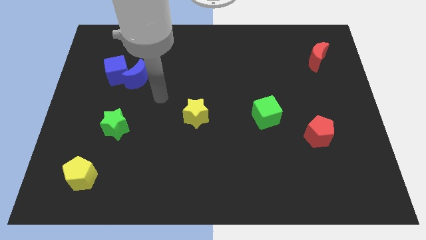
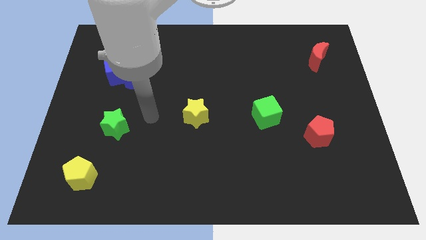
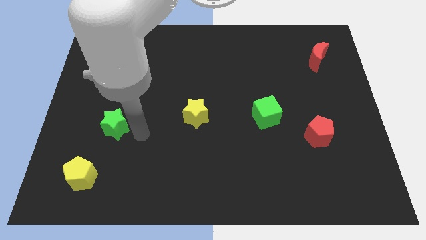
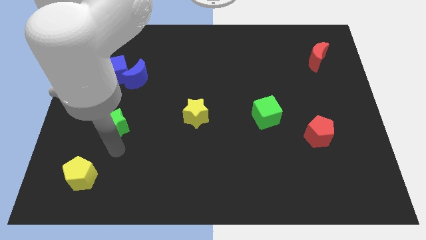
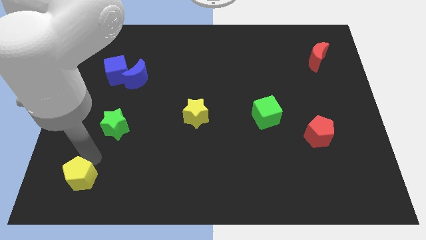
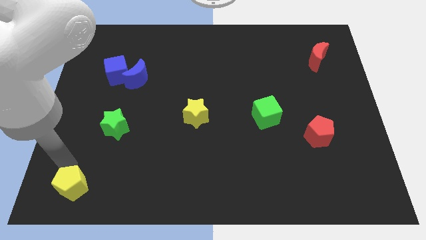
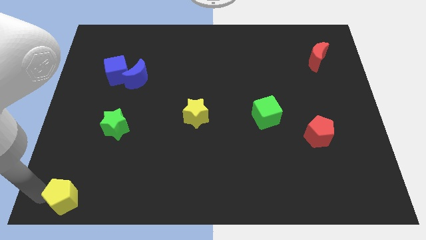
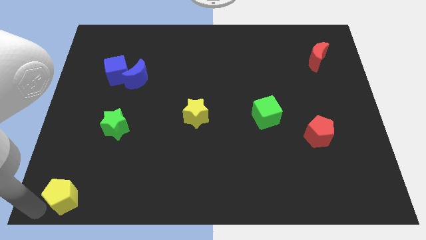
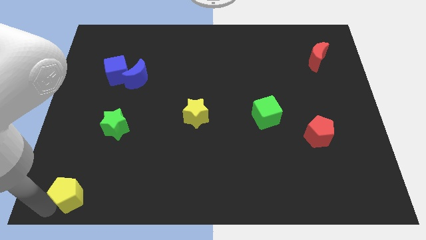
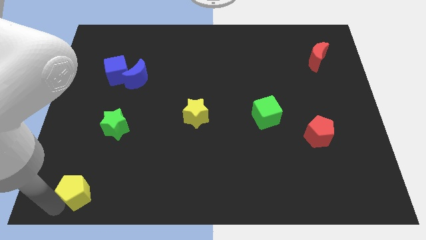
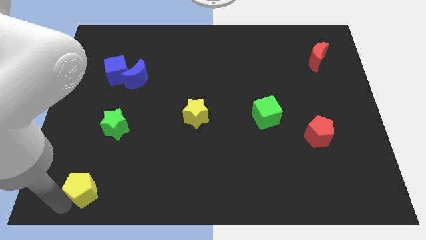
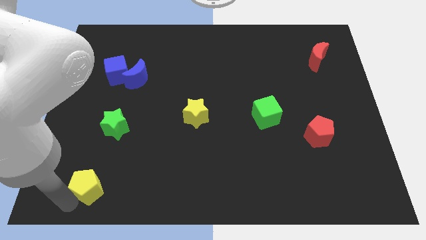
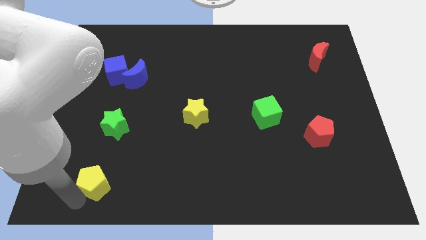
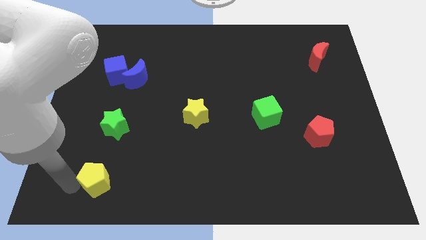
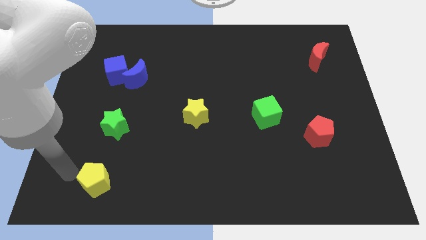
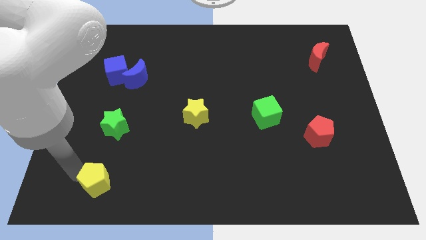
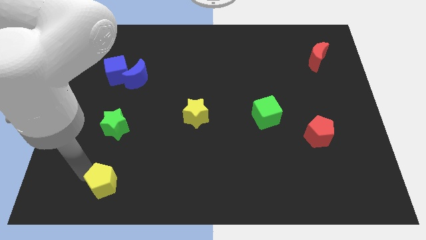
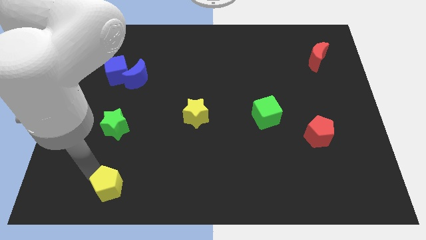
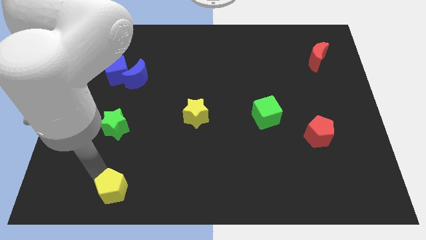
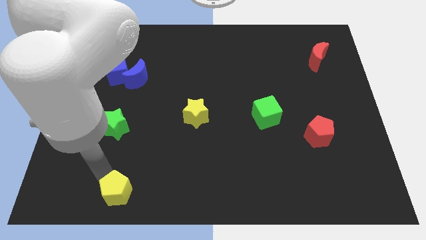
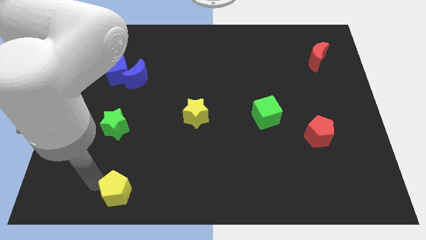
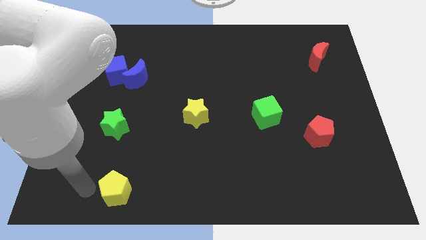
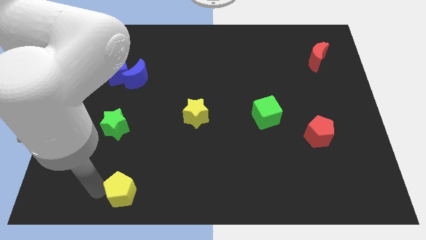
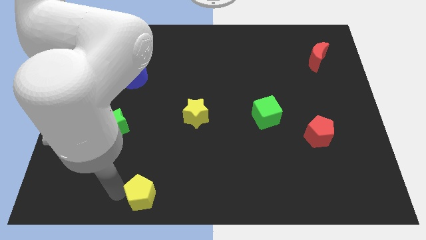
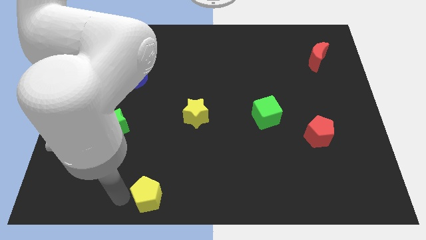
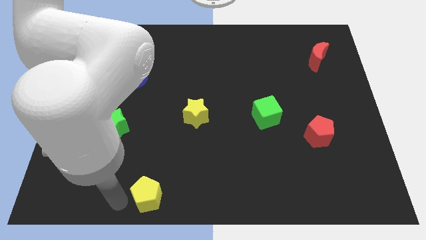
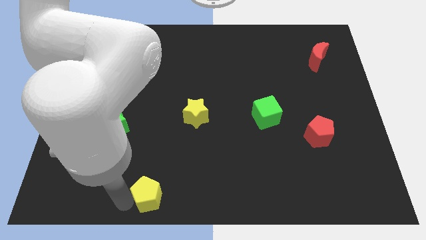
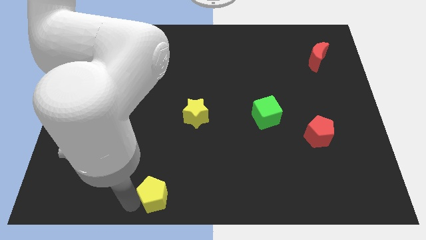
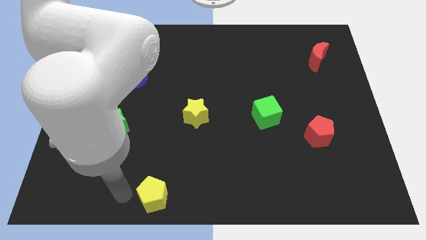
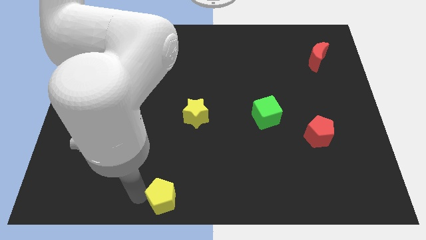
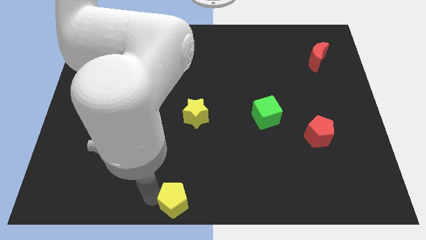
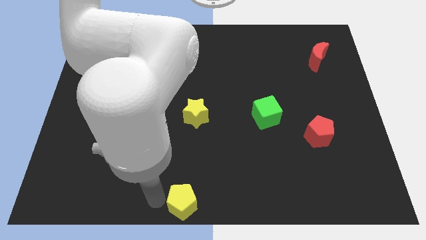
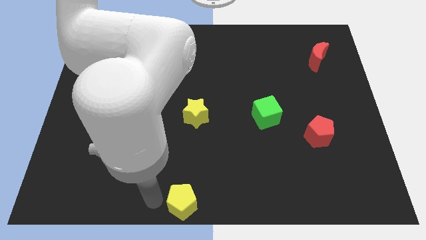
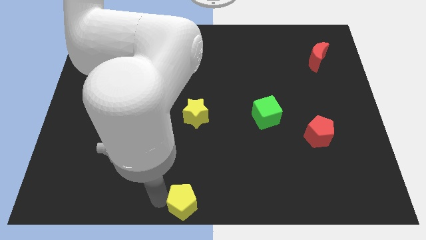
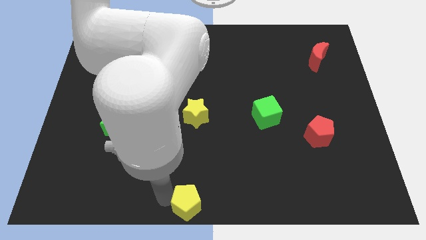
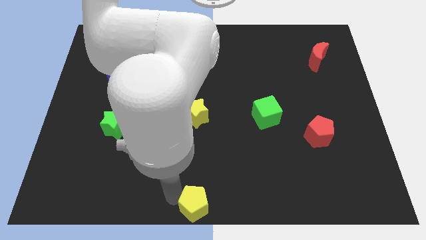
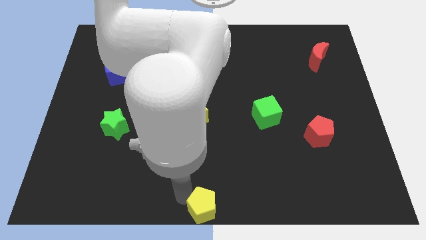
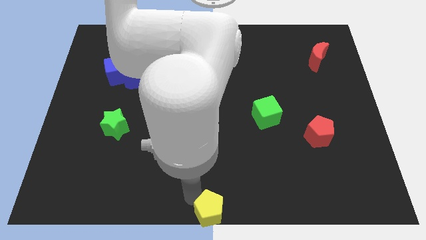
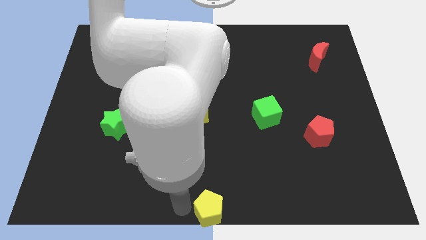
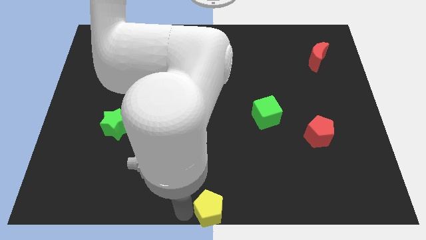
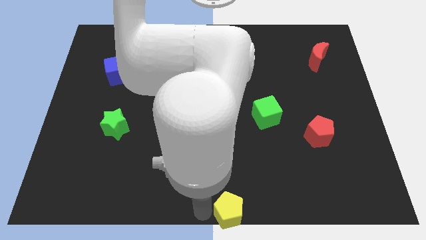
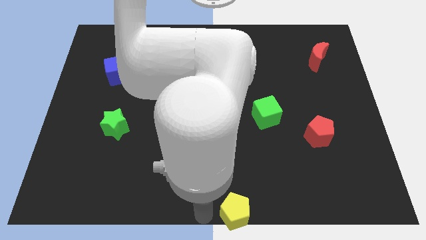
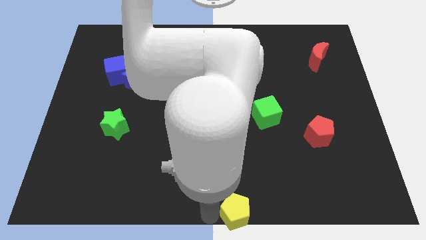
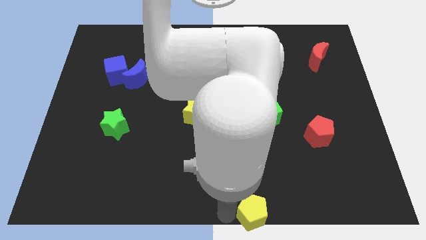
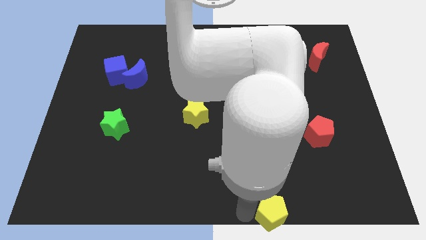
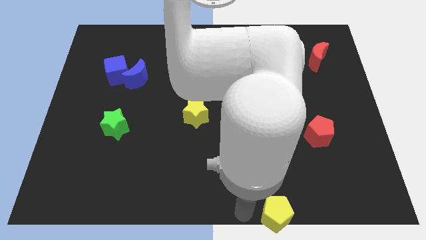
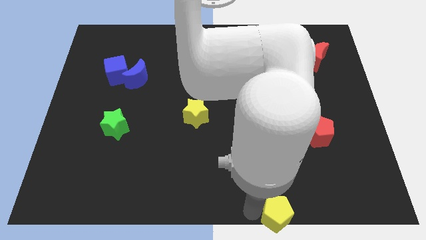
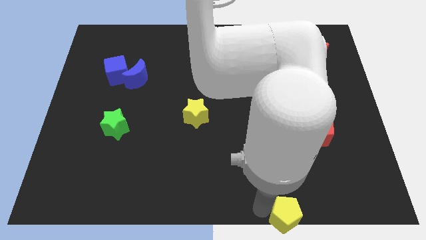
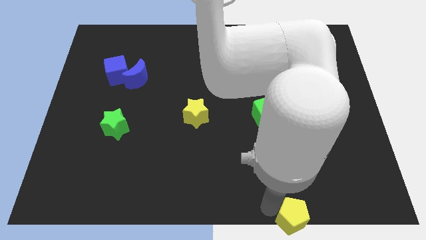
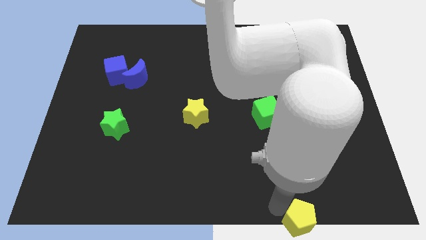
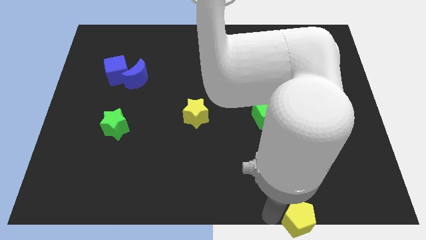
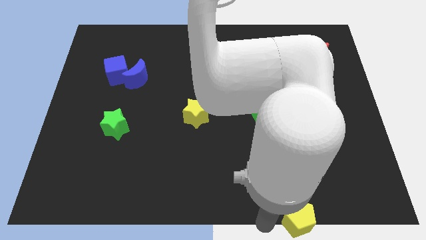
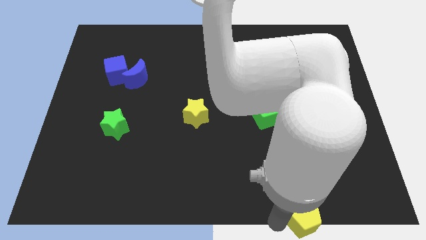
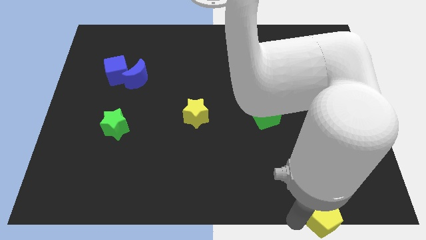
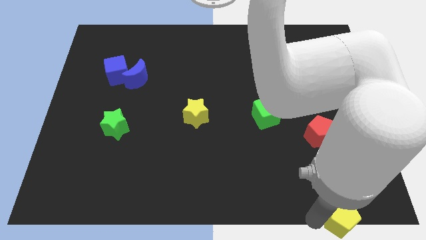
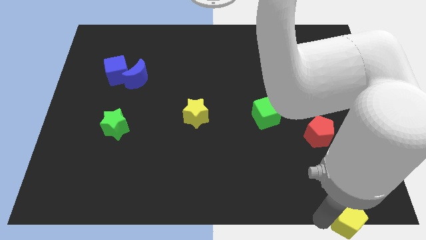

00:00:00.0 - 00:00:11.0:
slide the yellow pentagon to the bottom right of the board
